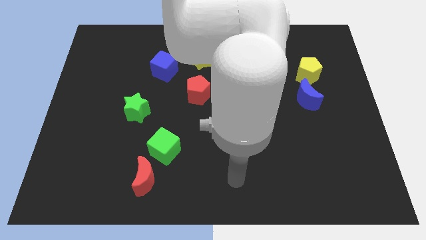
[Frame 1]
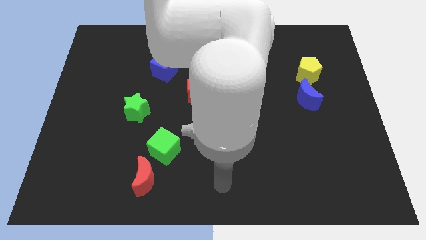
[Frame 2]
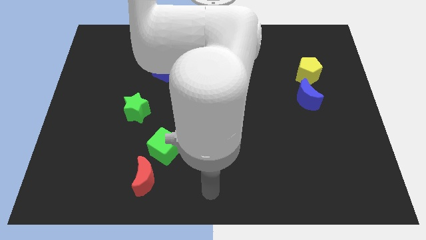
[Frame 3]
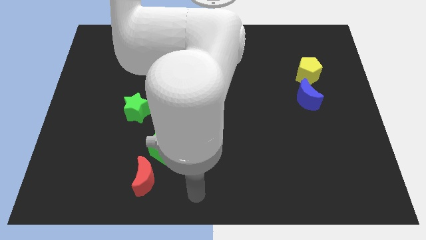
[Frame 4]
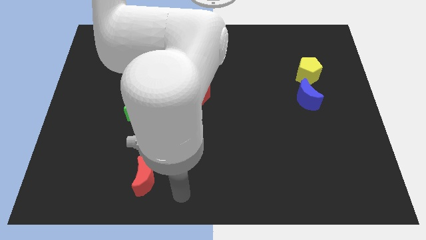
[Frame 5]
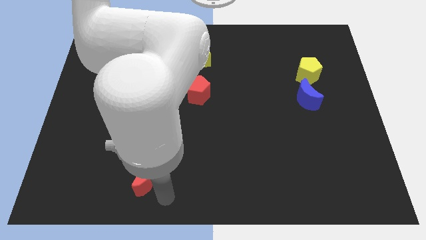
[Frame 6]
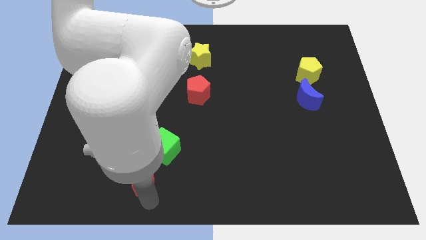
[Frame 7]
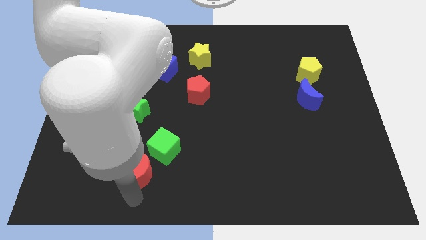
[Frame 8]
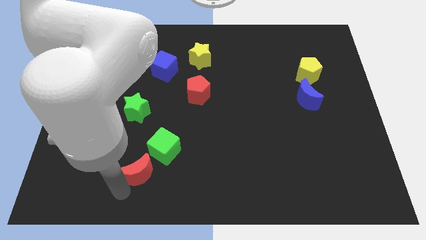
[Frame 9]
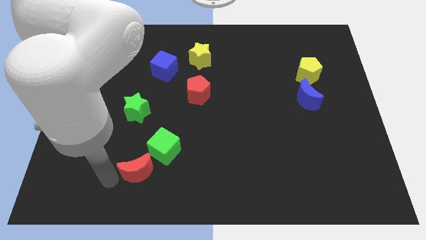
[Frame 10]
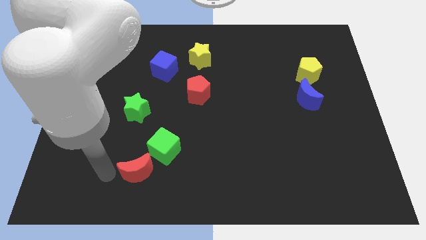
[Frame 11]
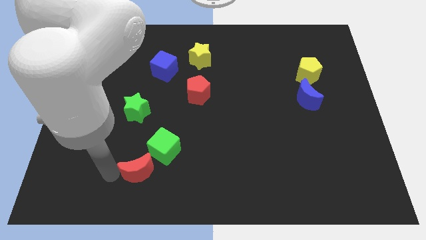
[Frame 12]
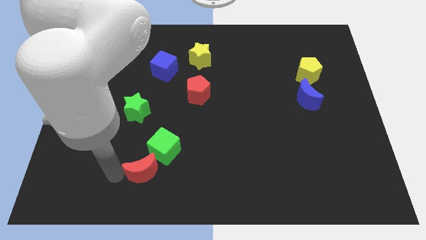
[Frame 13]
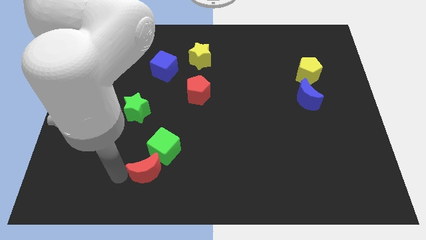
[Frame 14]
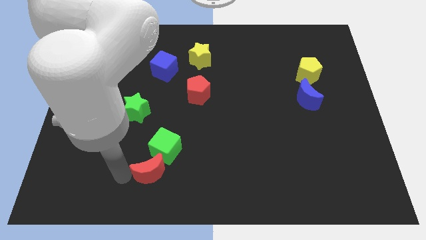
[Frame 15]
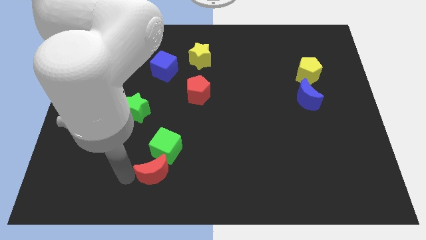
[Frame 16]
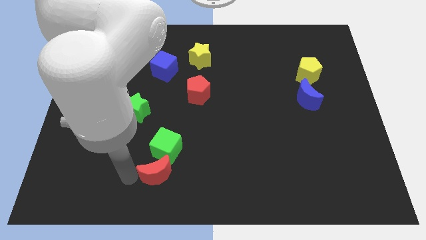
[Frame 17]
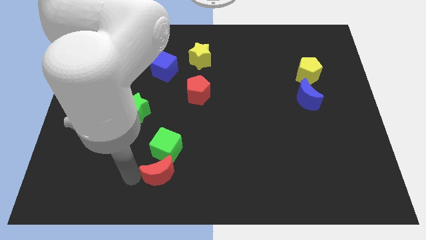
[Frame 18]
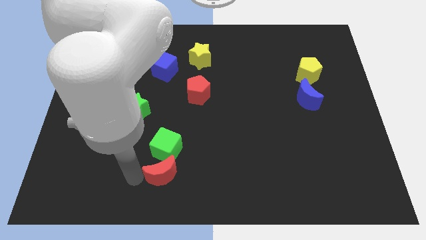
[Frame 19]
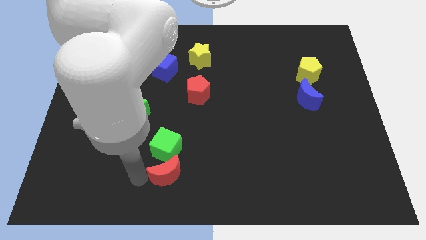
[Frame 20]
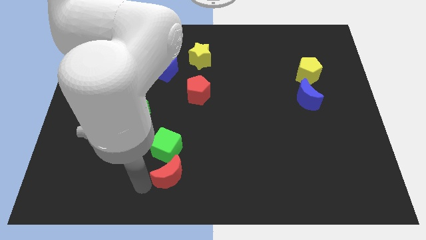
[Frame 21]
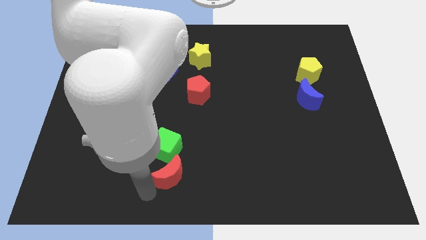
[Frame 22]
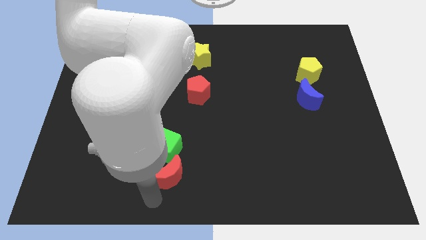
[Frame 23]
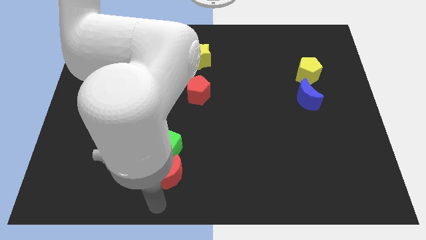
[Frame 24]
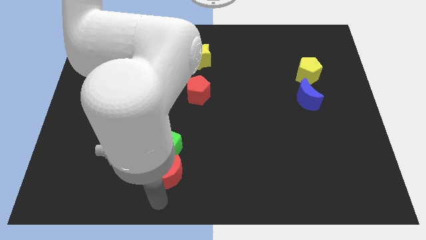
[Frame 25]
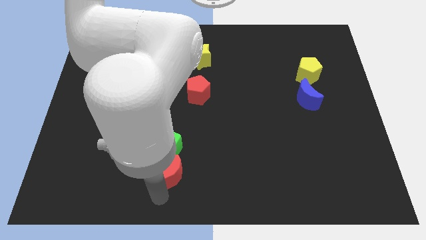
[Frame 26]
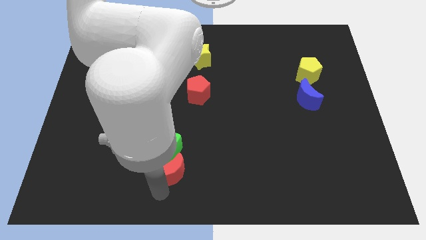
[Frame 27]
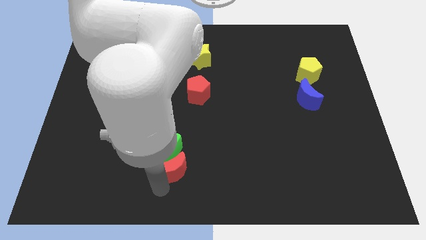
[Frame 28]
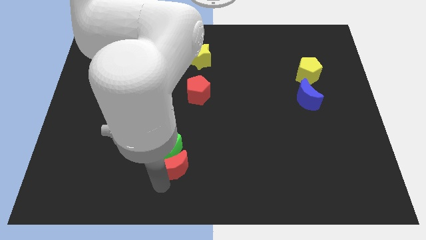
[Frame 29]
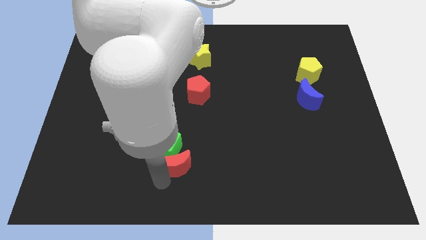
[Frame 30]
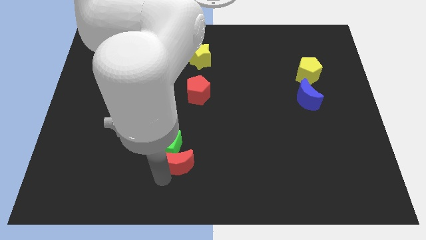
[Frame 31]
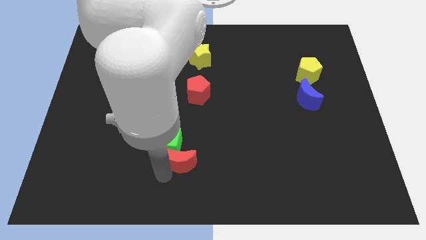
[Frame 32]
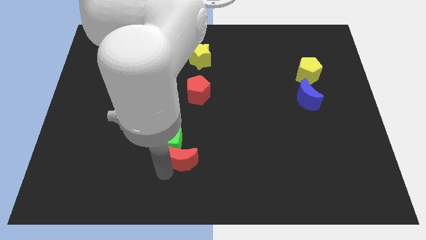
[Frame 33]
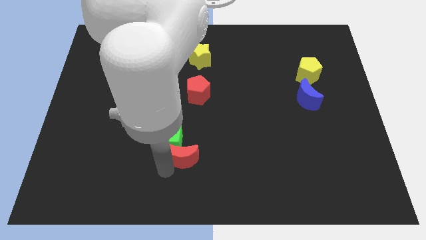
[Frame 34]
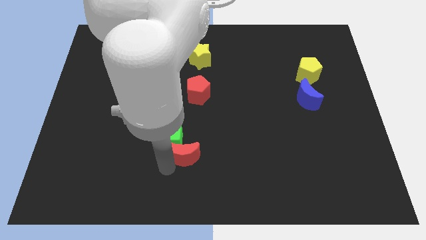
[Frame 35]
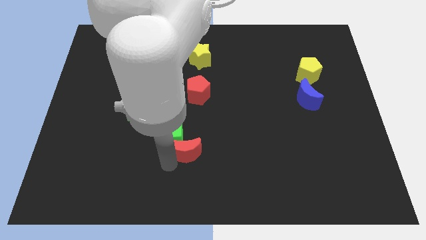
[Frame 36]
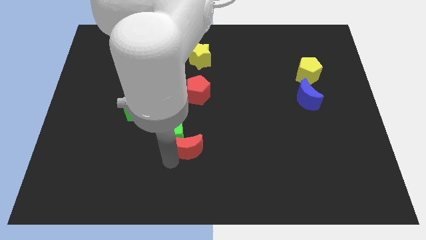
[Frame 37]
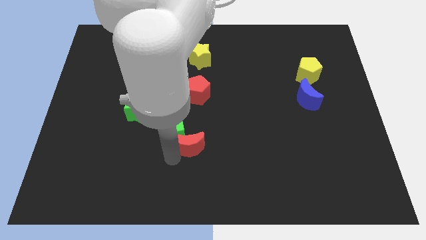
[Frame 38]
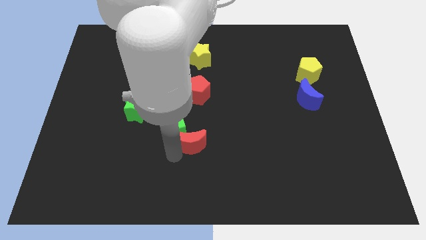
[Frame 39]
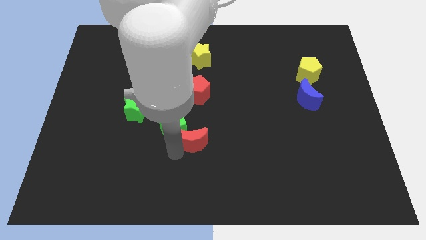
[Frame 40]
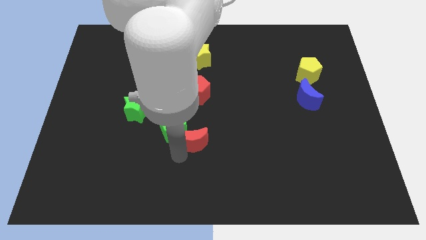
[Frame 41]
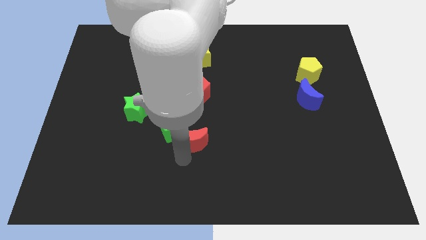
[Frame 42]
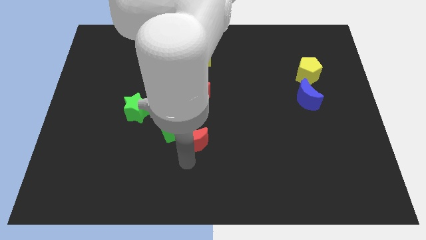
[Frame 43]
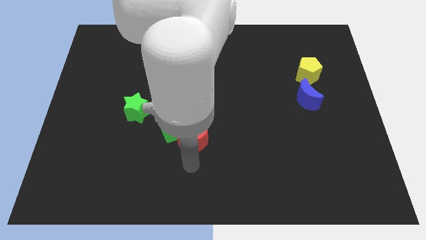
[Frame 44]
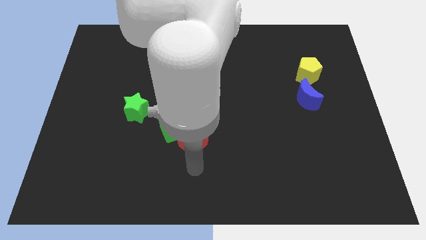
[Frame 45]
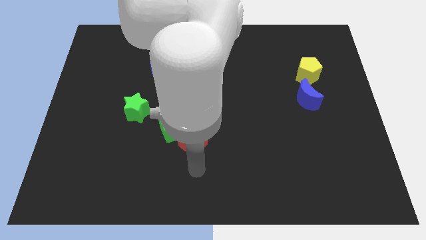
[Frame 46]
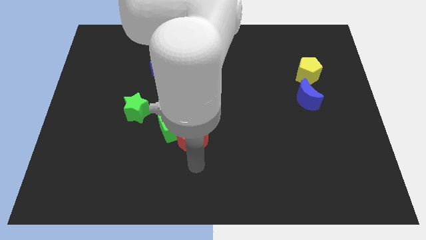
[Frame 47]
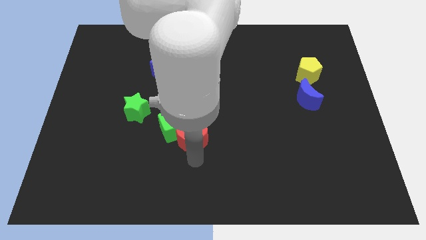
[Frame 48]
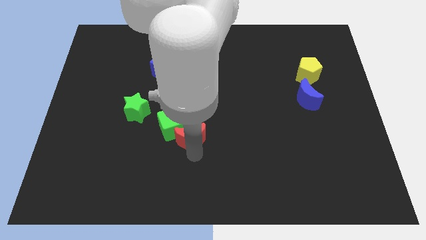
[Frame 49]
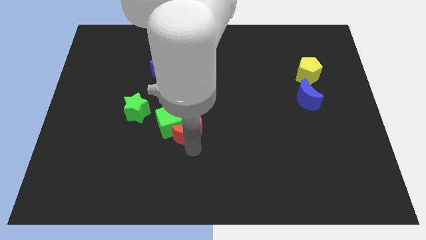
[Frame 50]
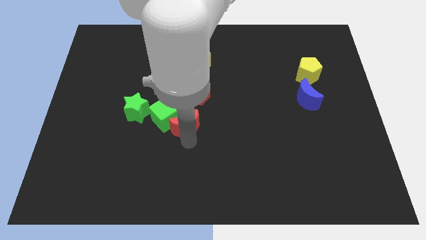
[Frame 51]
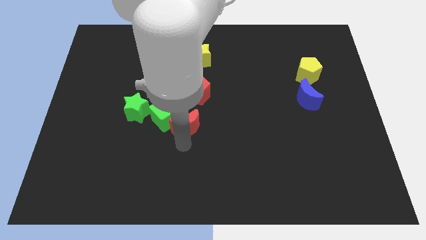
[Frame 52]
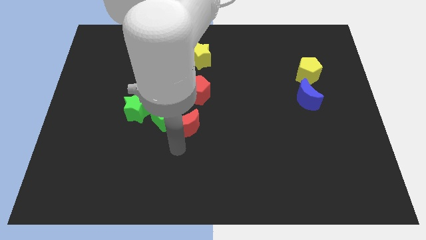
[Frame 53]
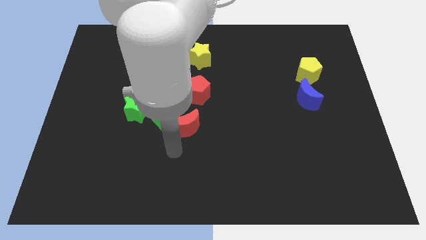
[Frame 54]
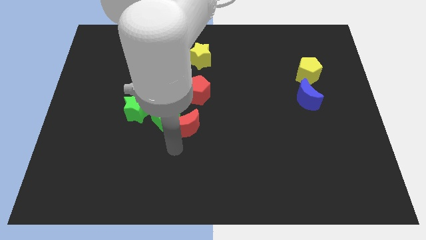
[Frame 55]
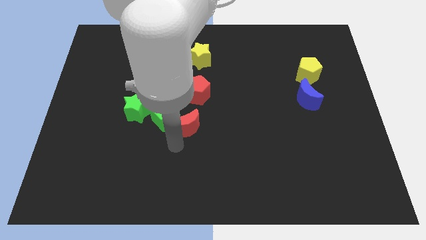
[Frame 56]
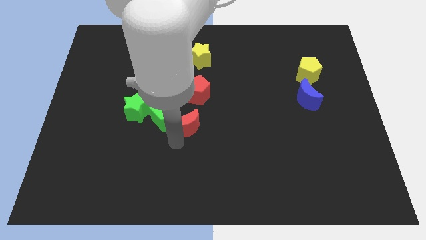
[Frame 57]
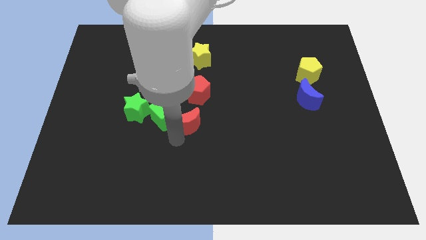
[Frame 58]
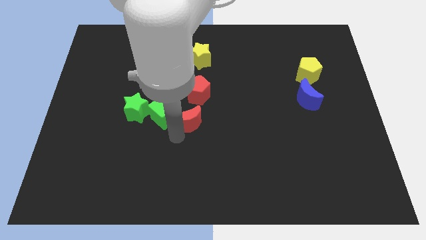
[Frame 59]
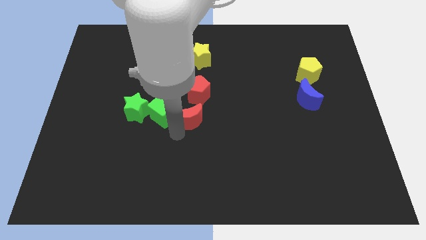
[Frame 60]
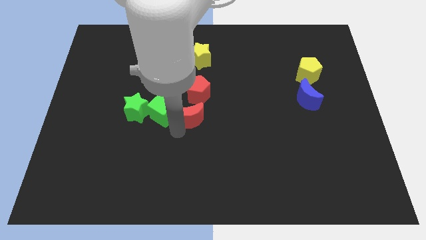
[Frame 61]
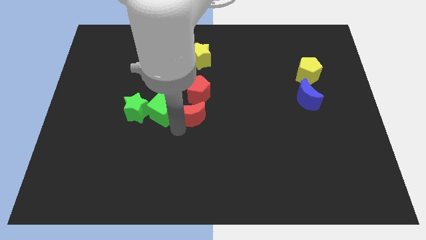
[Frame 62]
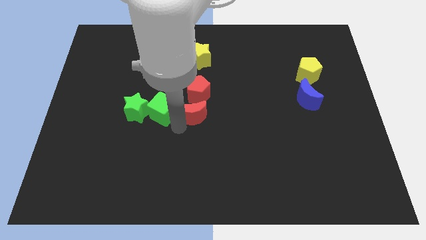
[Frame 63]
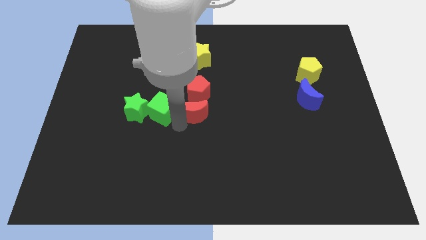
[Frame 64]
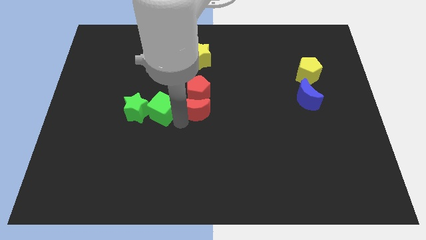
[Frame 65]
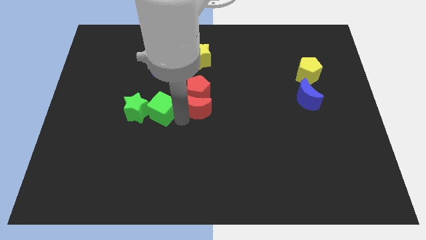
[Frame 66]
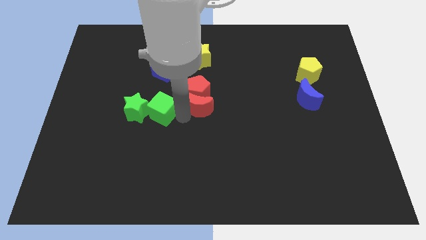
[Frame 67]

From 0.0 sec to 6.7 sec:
slide the red moon to the bottom side of the yellow star
